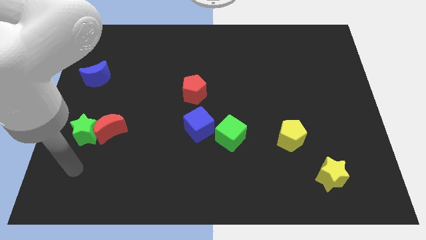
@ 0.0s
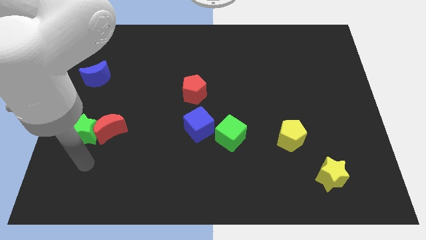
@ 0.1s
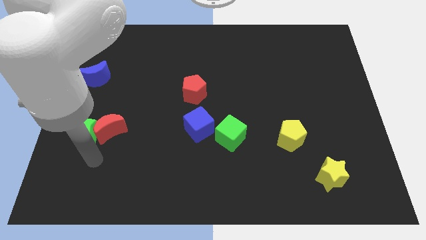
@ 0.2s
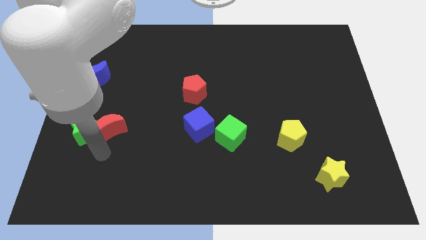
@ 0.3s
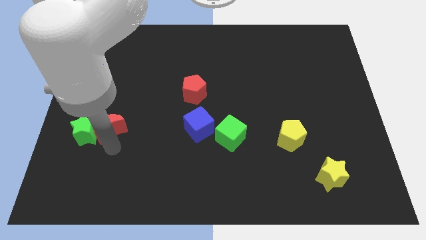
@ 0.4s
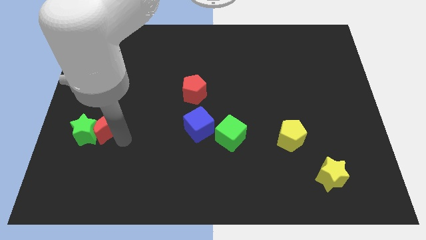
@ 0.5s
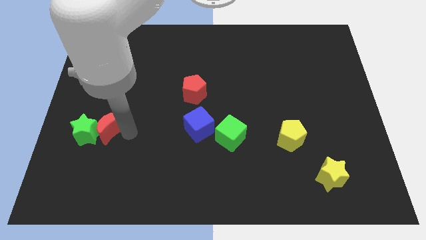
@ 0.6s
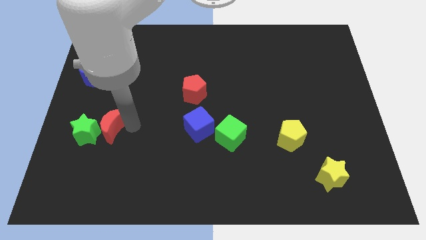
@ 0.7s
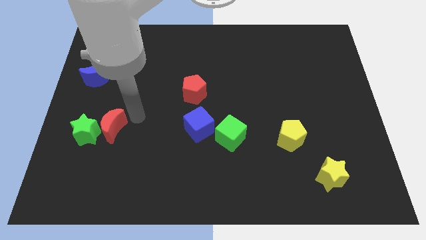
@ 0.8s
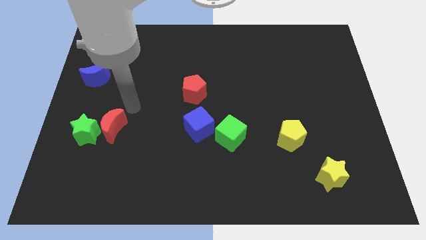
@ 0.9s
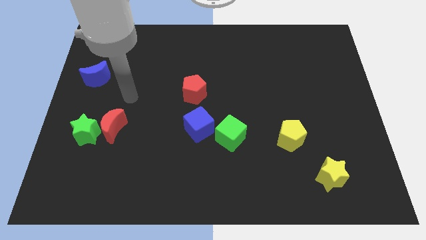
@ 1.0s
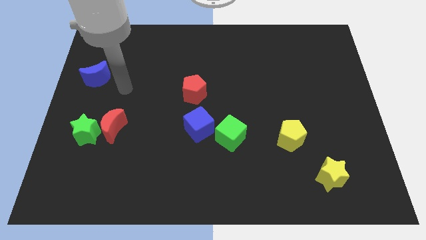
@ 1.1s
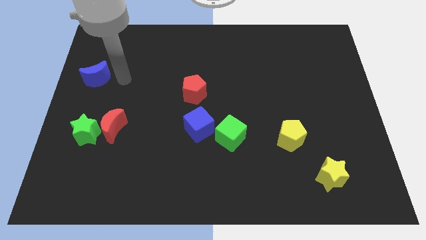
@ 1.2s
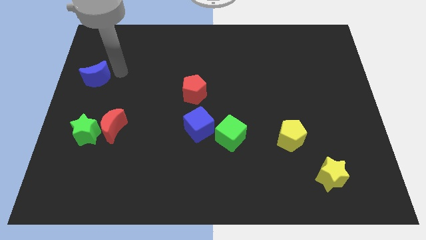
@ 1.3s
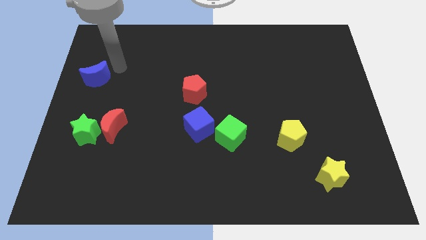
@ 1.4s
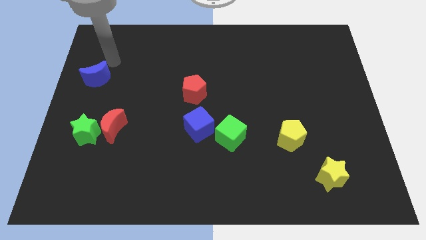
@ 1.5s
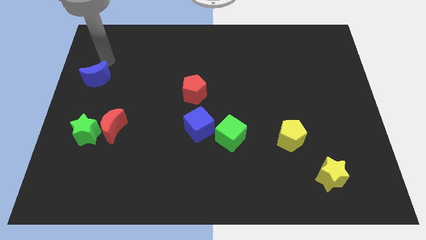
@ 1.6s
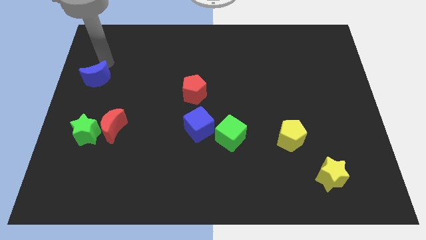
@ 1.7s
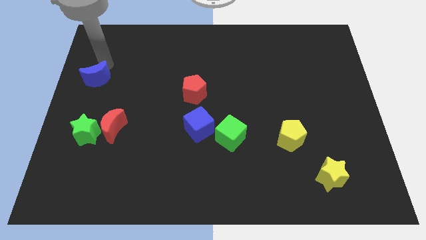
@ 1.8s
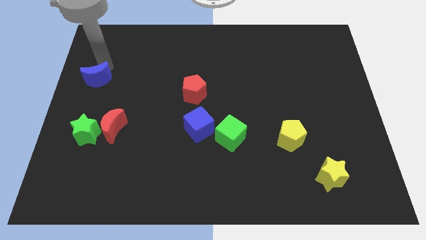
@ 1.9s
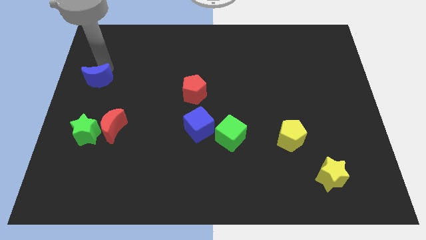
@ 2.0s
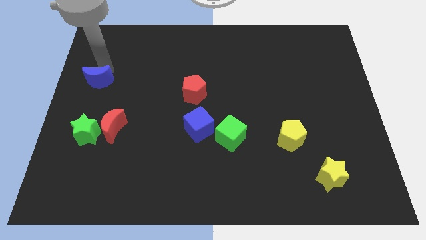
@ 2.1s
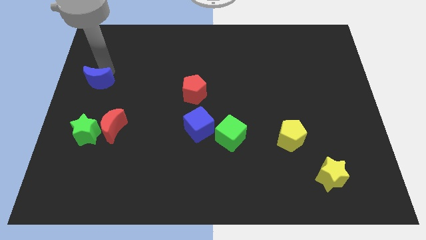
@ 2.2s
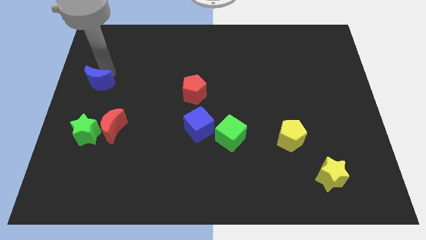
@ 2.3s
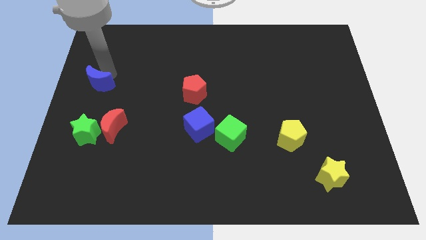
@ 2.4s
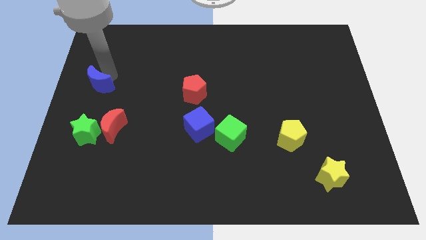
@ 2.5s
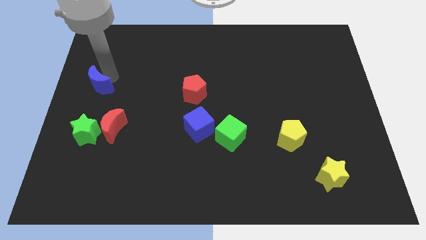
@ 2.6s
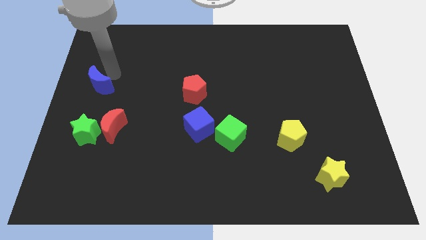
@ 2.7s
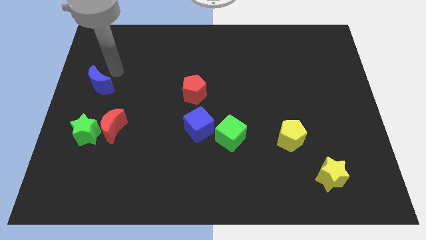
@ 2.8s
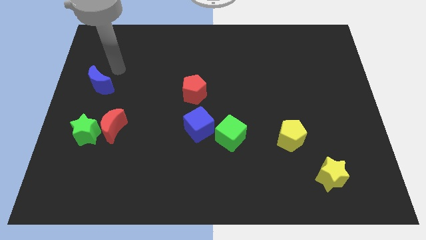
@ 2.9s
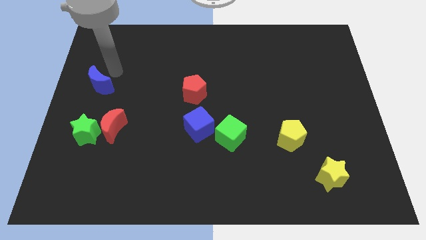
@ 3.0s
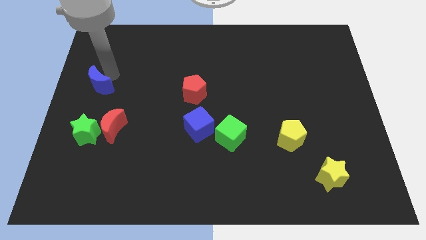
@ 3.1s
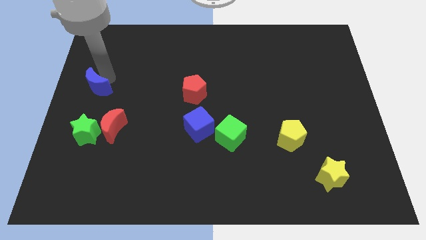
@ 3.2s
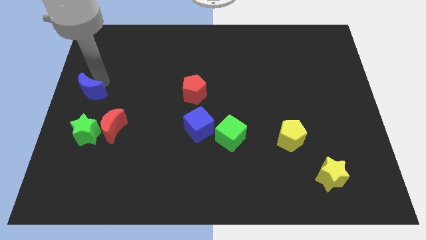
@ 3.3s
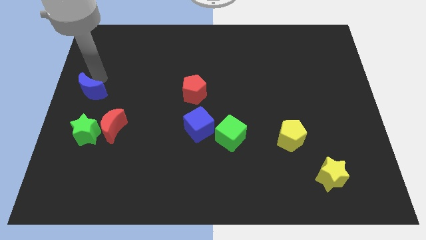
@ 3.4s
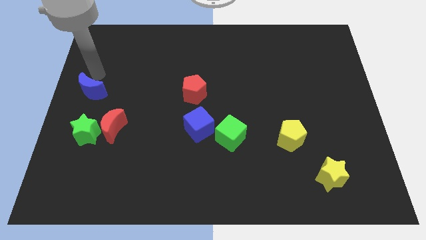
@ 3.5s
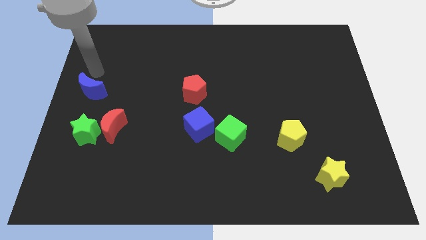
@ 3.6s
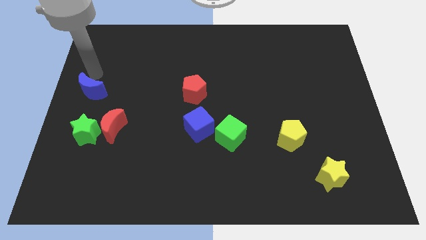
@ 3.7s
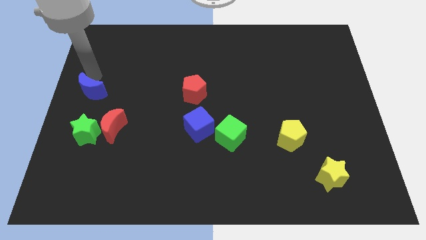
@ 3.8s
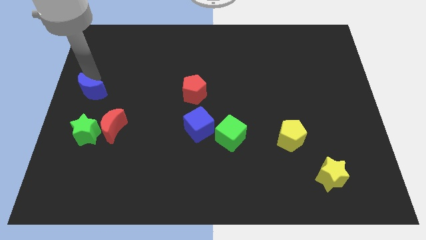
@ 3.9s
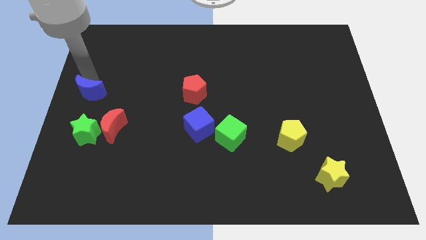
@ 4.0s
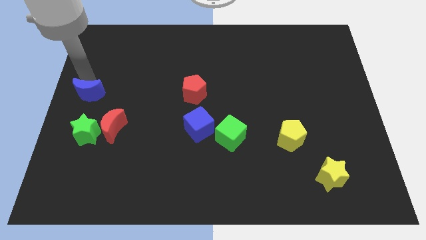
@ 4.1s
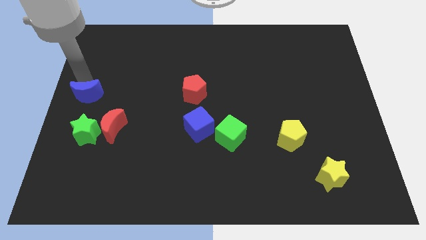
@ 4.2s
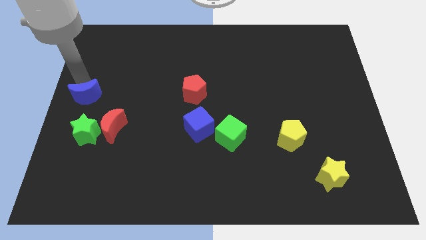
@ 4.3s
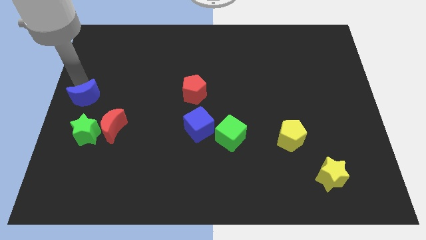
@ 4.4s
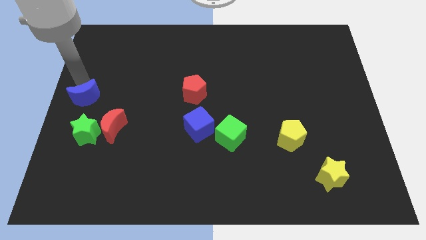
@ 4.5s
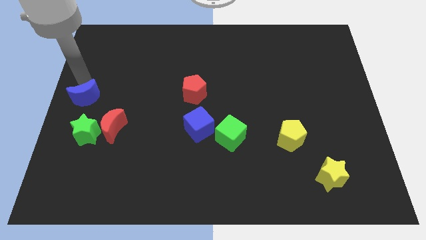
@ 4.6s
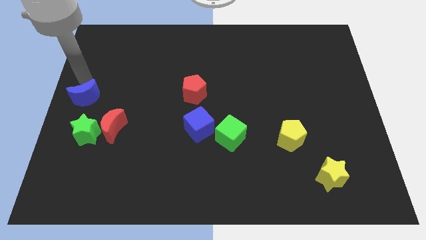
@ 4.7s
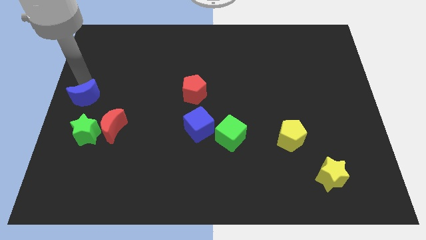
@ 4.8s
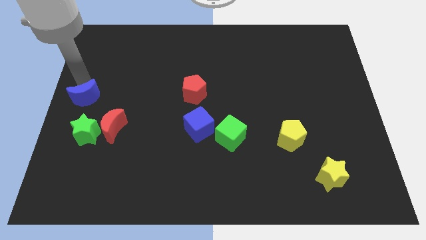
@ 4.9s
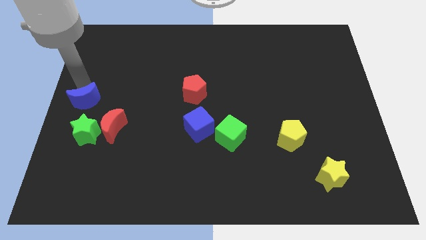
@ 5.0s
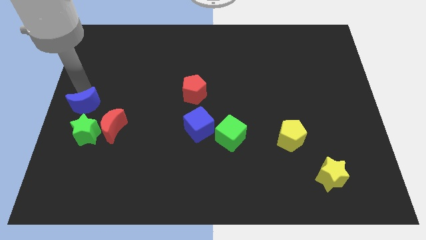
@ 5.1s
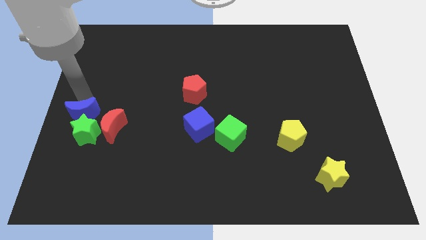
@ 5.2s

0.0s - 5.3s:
slide the blue moon to the green star

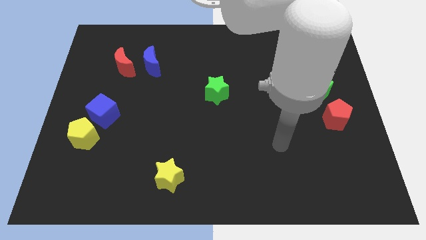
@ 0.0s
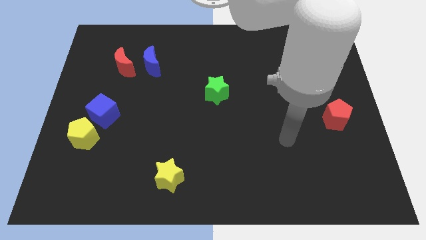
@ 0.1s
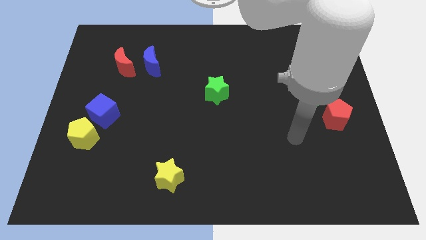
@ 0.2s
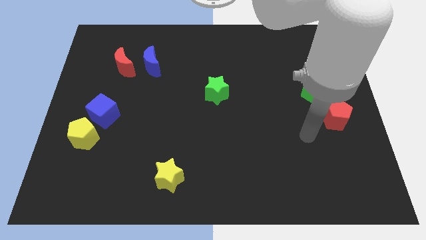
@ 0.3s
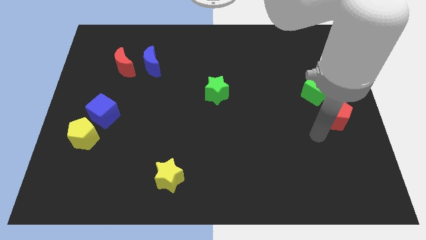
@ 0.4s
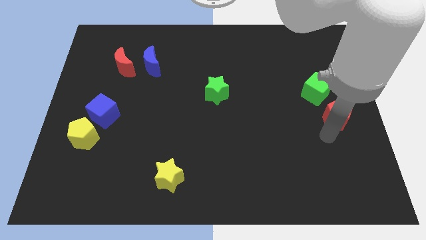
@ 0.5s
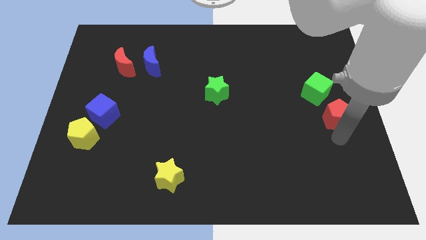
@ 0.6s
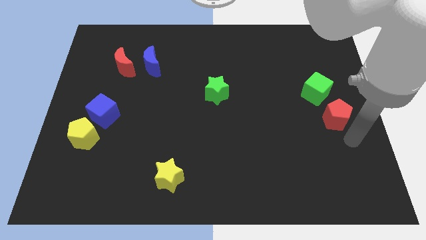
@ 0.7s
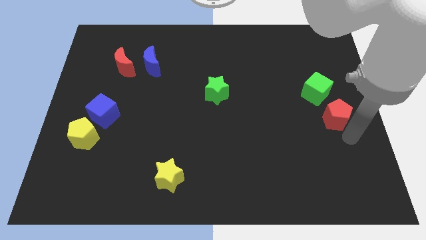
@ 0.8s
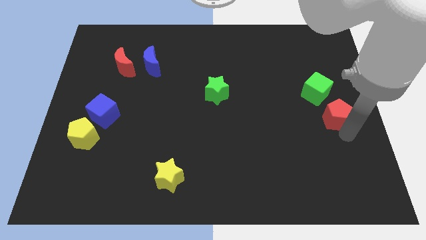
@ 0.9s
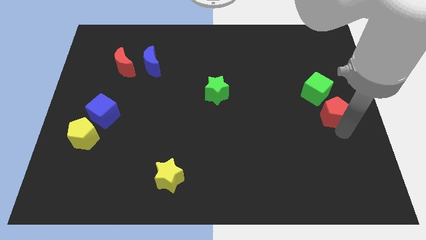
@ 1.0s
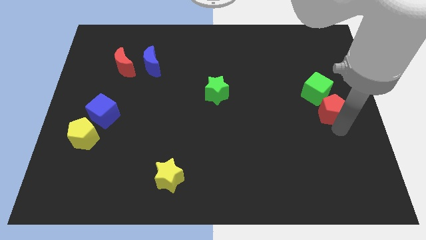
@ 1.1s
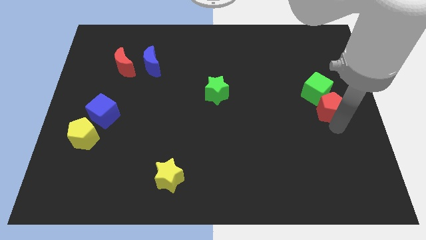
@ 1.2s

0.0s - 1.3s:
slide the red pentagon close to the green cube

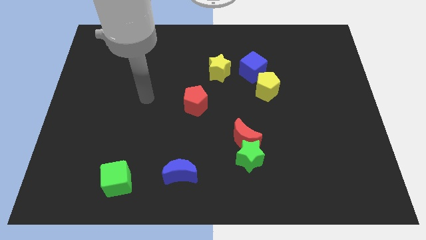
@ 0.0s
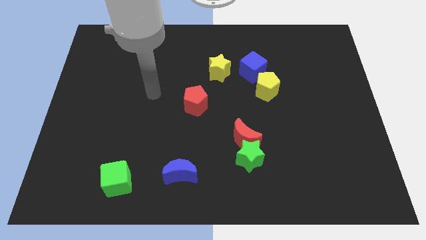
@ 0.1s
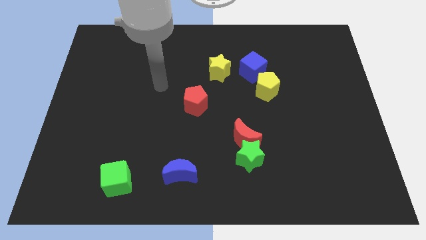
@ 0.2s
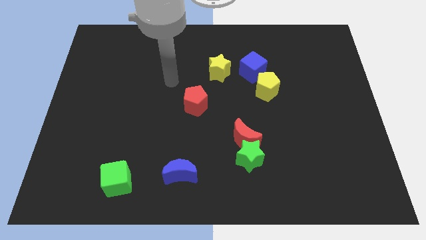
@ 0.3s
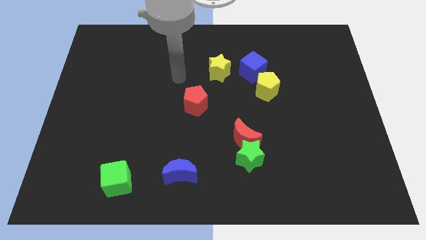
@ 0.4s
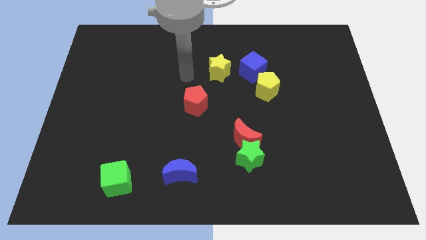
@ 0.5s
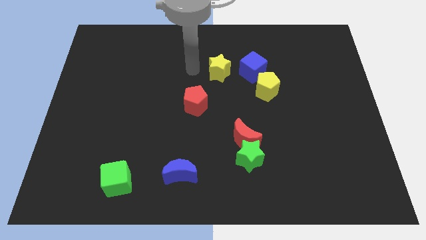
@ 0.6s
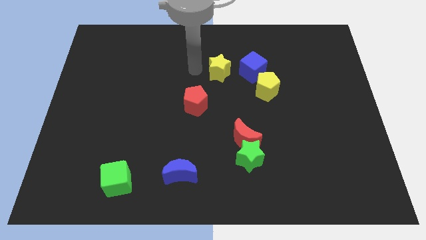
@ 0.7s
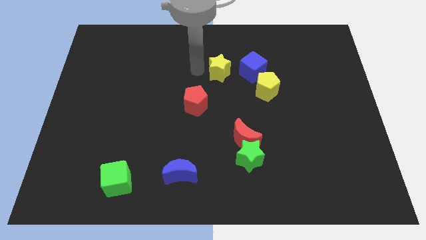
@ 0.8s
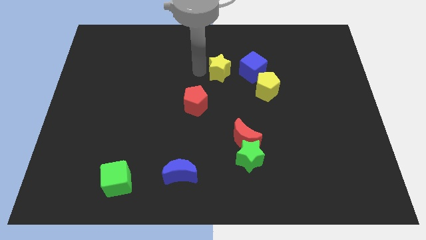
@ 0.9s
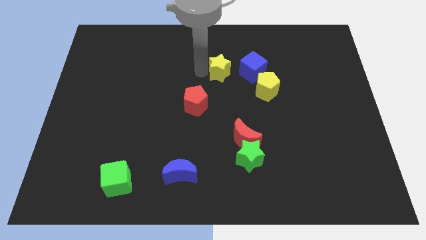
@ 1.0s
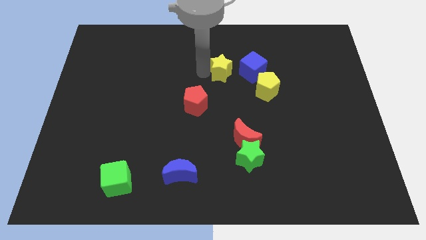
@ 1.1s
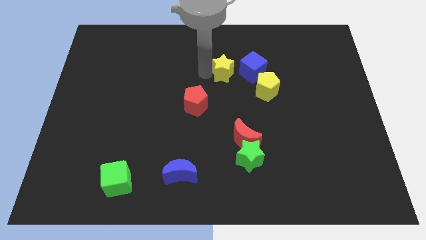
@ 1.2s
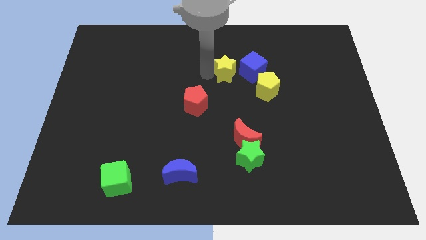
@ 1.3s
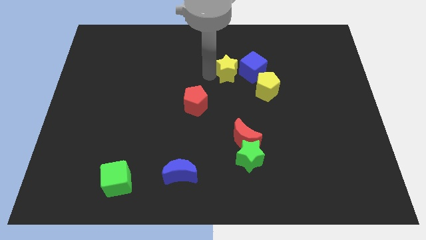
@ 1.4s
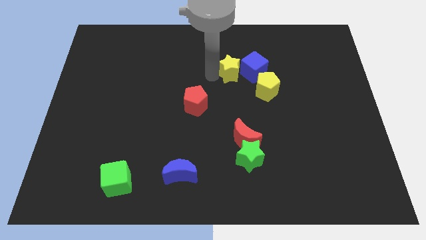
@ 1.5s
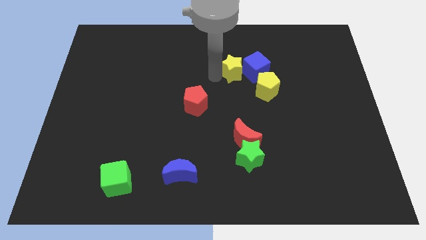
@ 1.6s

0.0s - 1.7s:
slide the yellow star close to the blue cube
